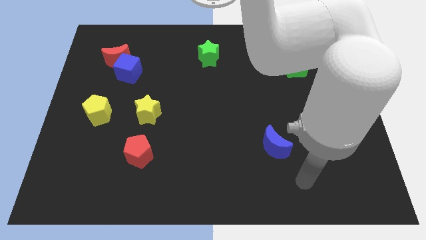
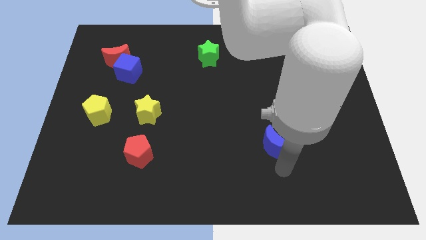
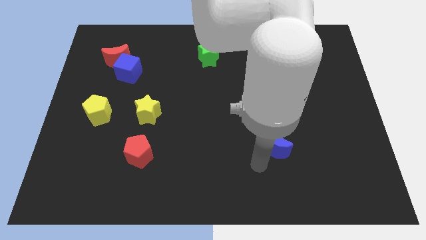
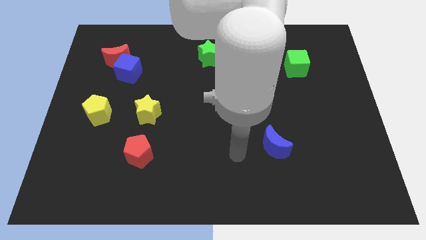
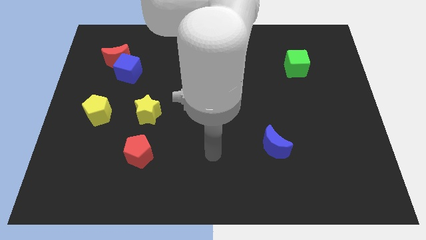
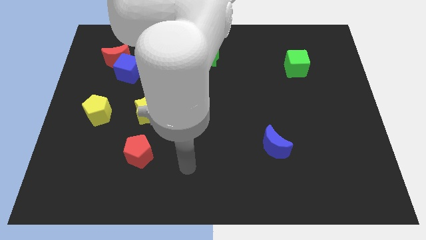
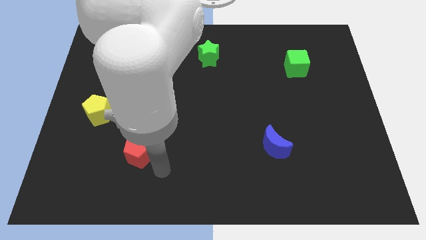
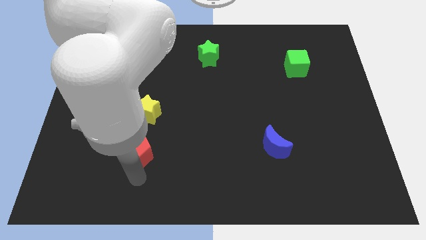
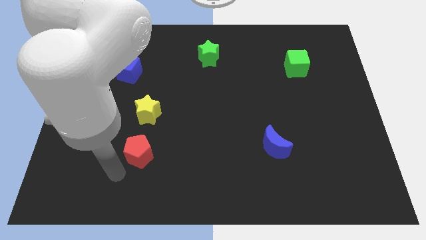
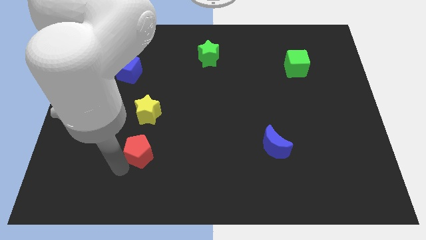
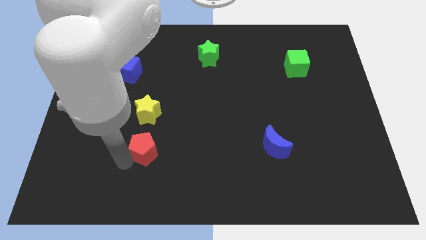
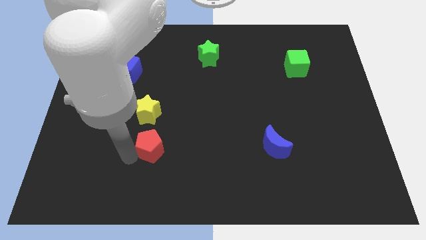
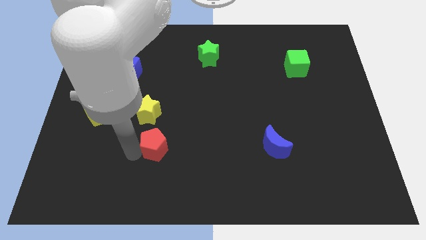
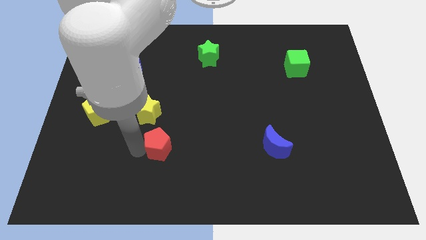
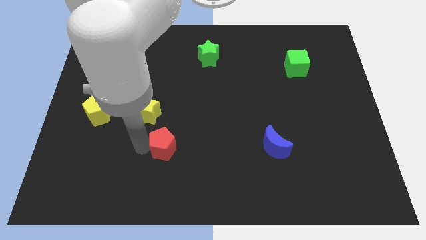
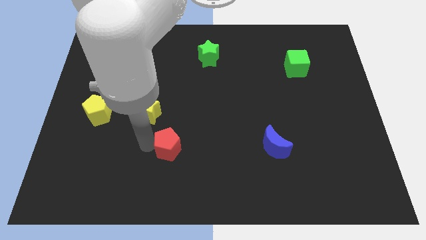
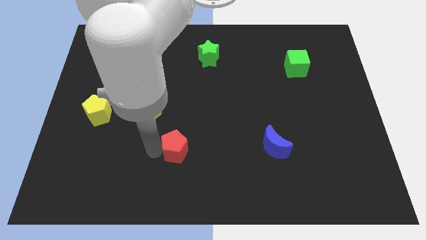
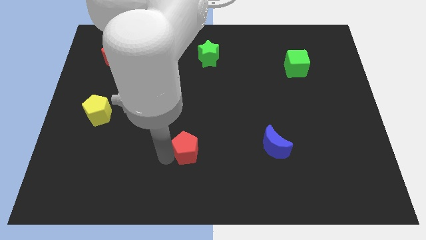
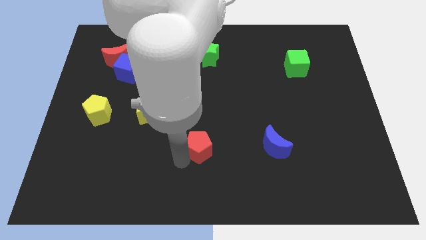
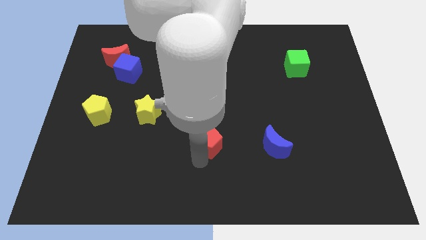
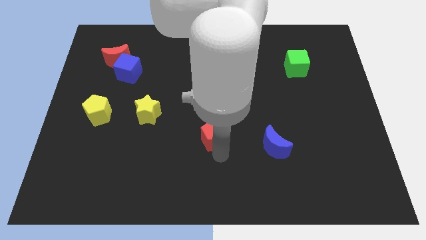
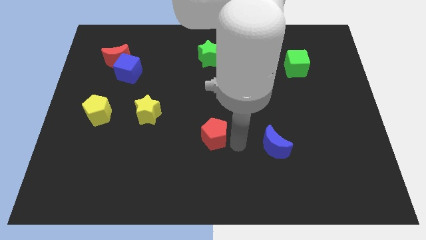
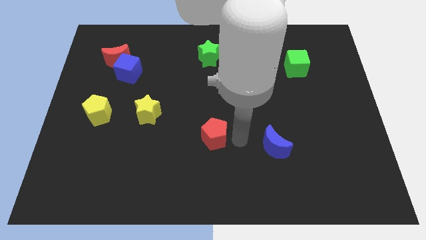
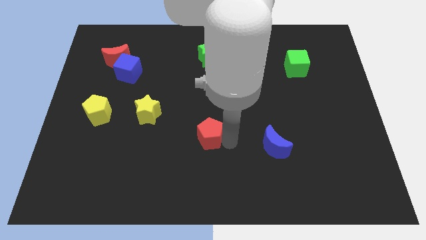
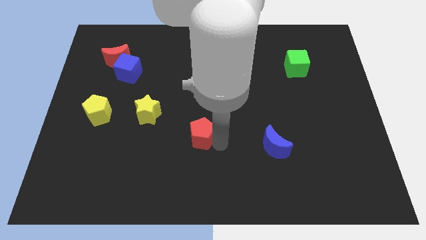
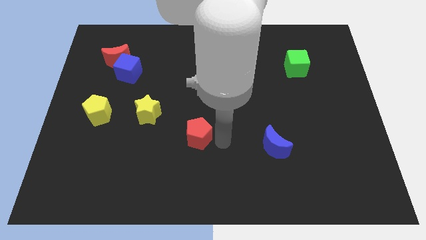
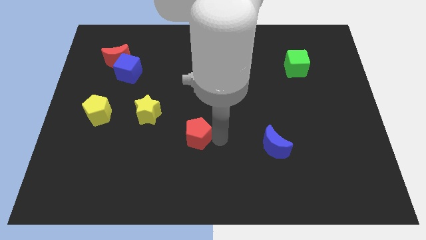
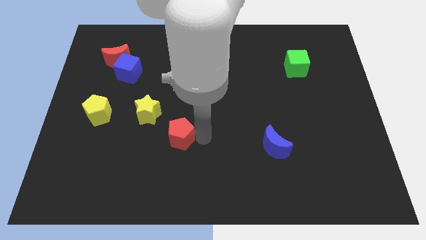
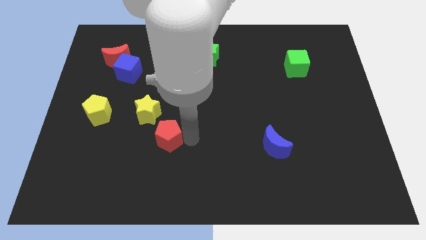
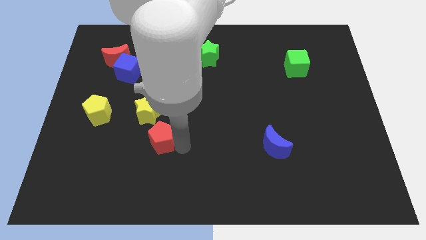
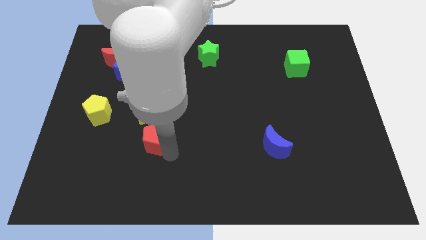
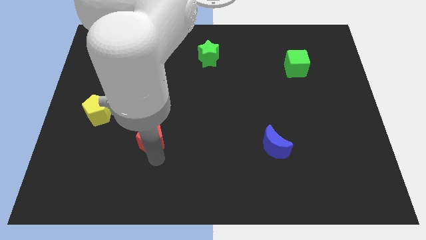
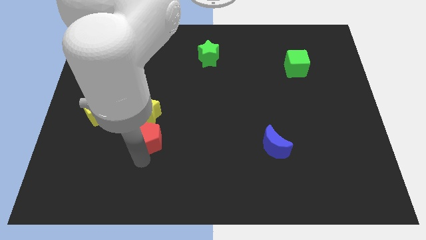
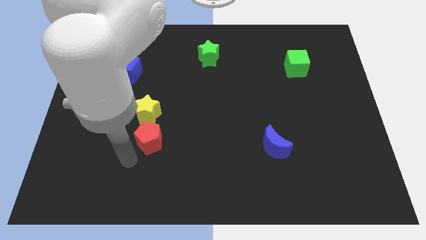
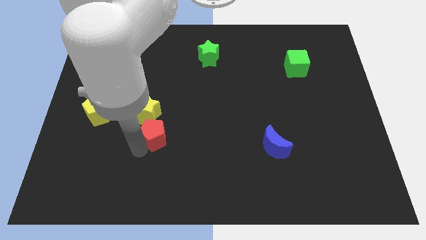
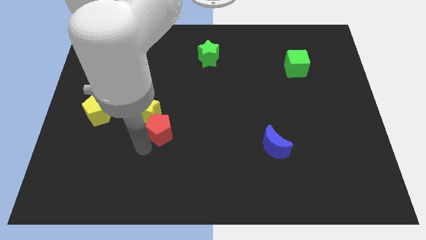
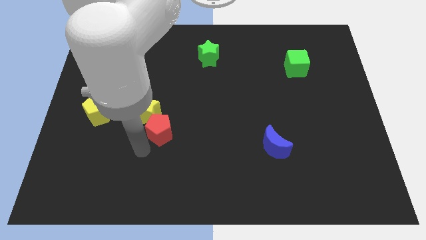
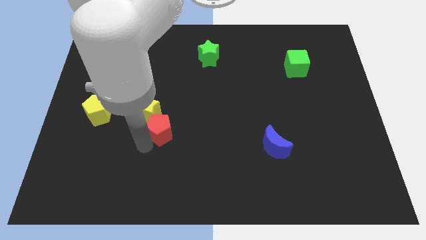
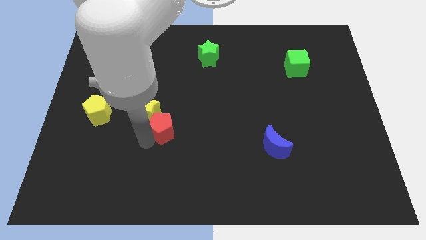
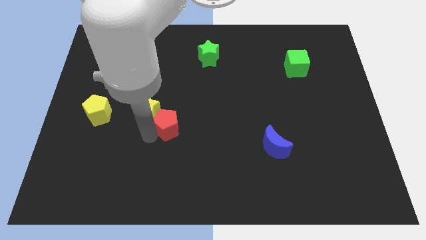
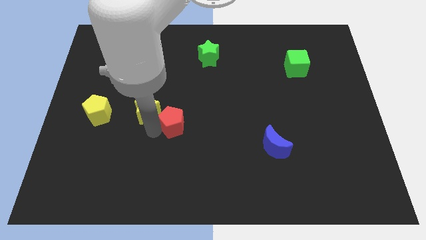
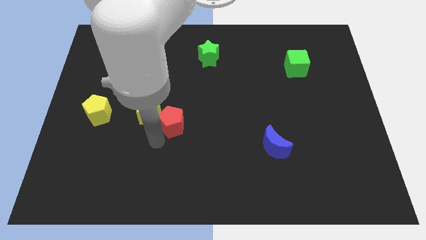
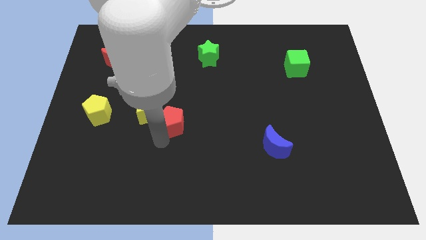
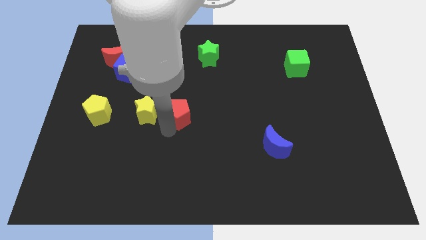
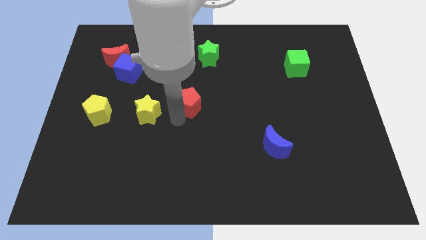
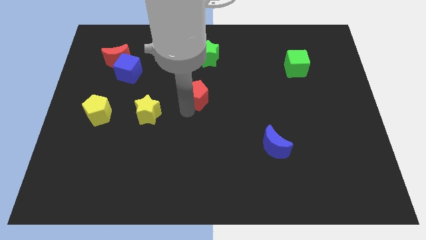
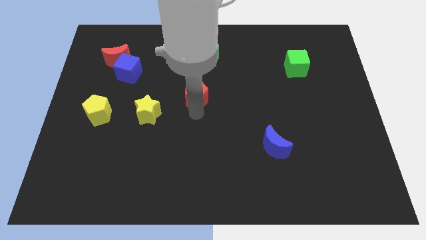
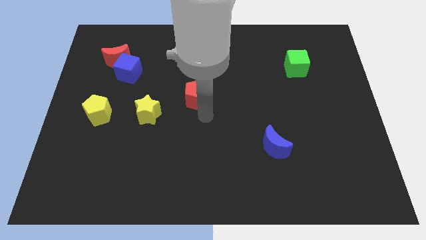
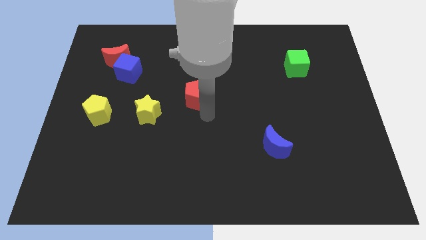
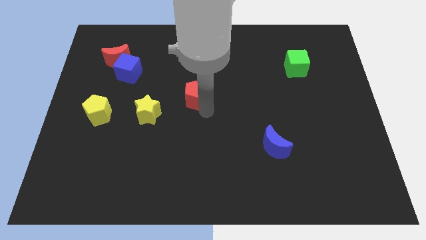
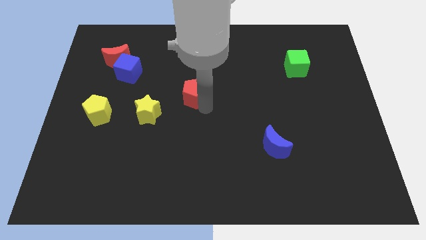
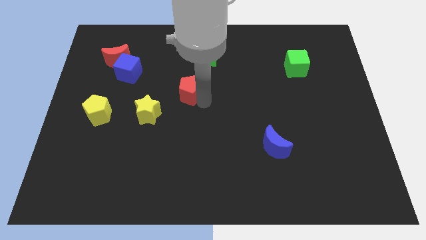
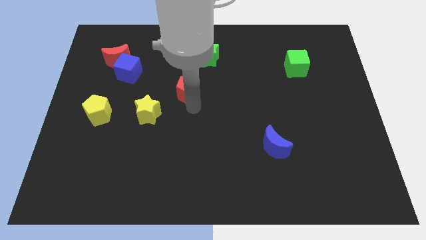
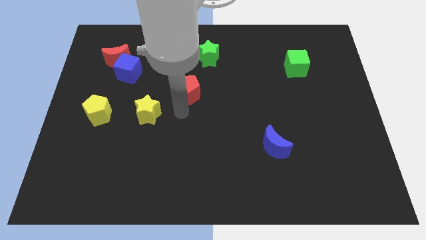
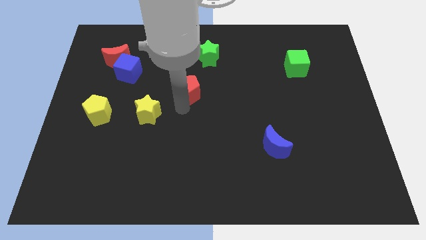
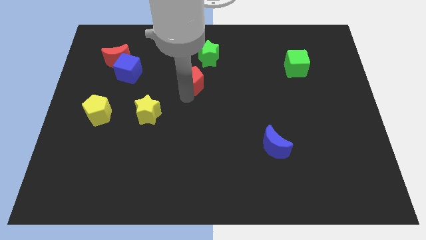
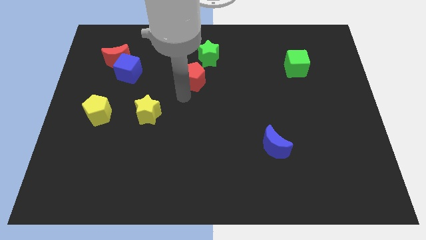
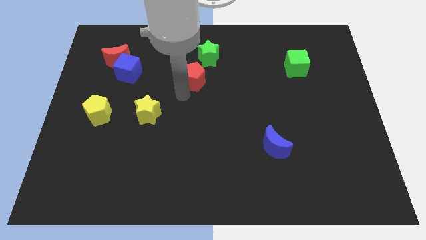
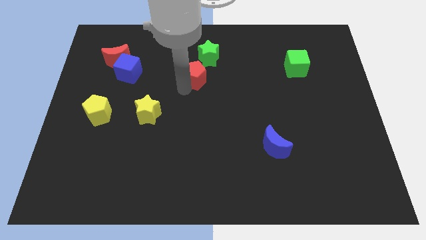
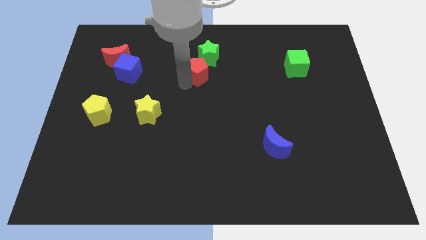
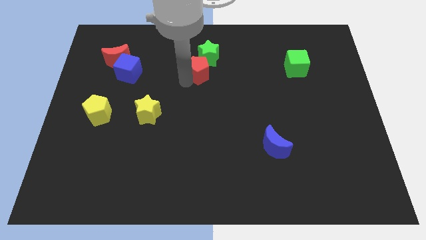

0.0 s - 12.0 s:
push the red pentagon to the green star

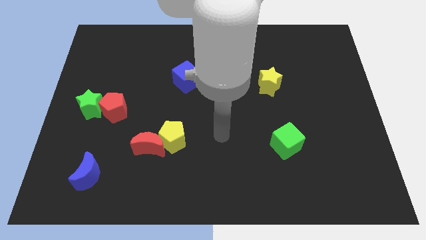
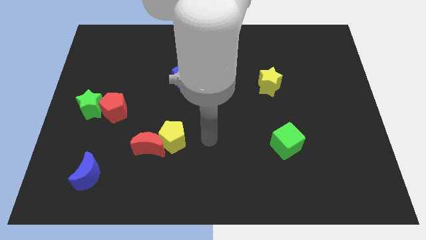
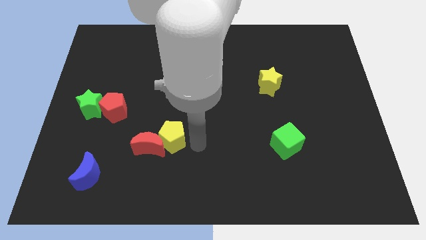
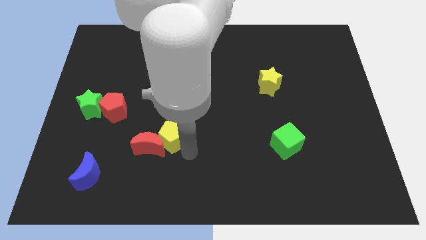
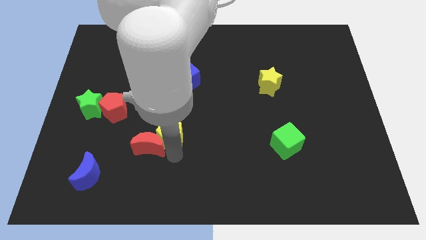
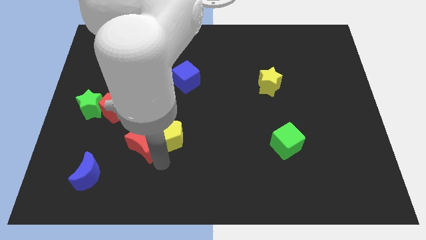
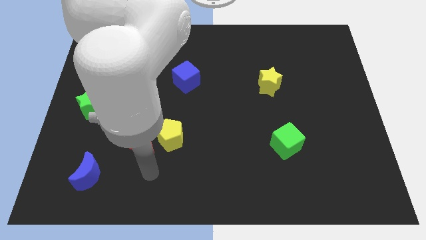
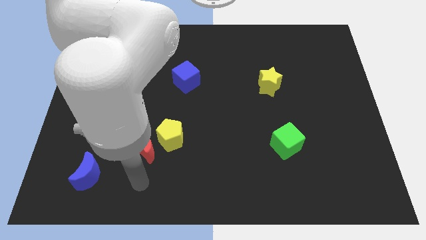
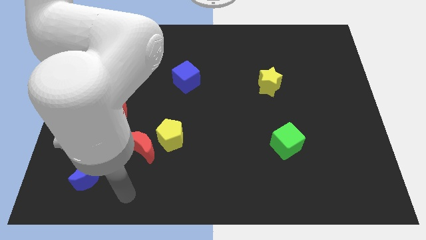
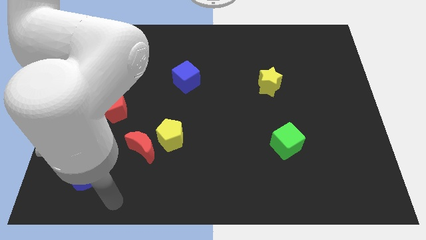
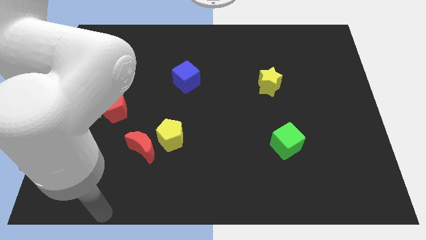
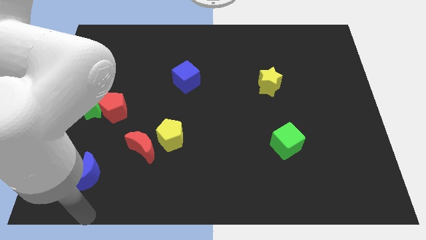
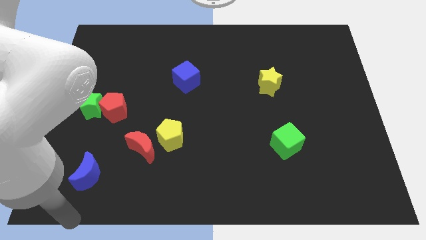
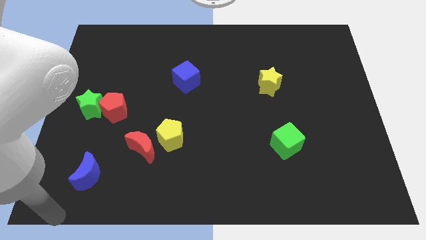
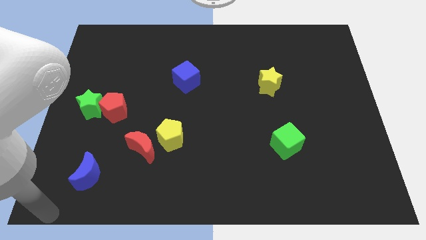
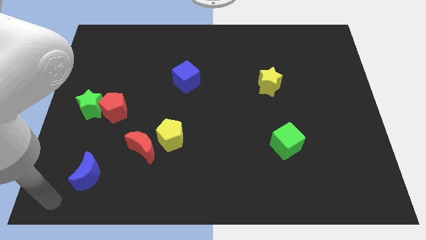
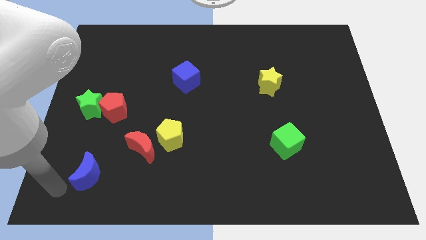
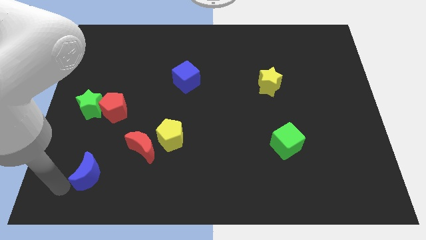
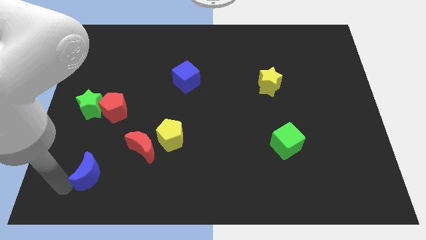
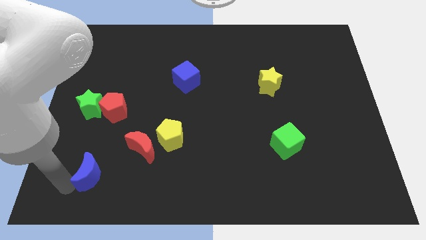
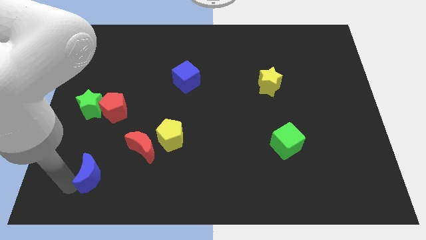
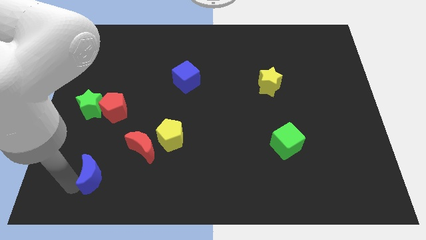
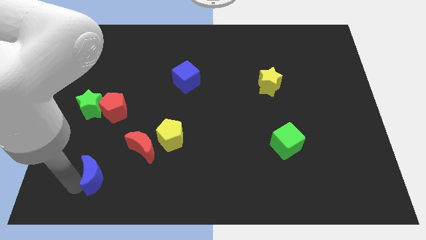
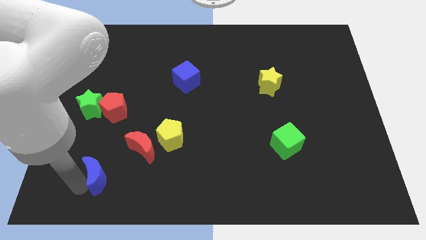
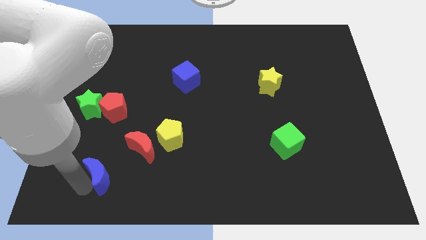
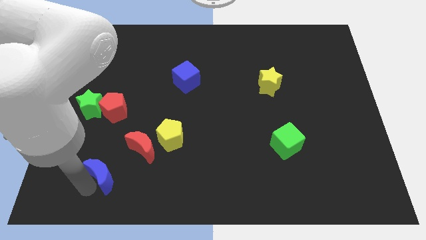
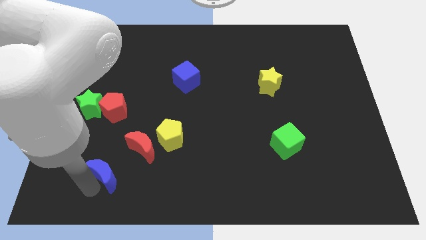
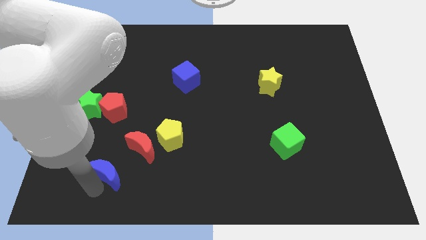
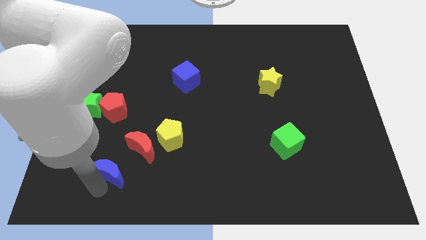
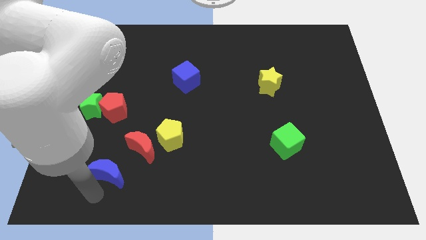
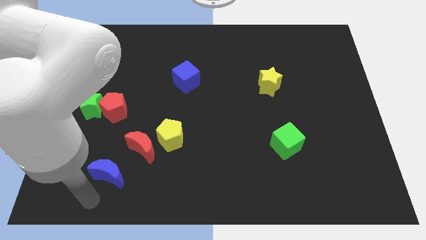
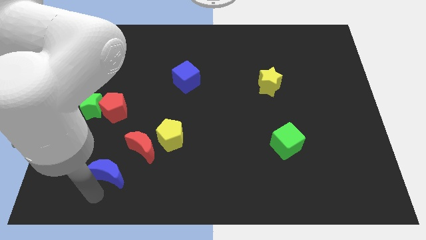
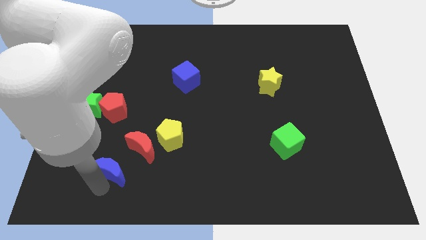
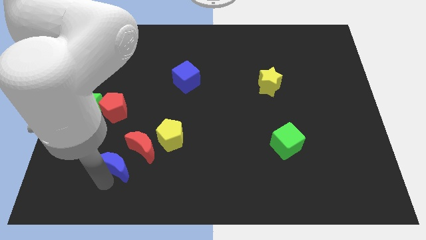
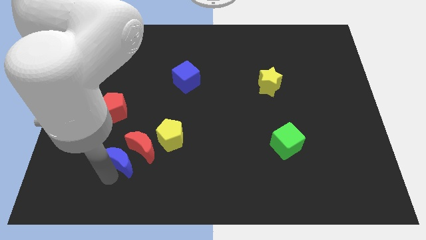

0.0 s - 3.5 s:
slide the blue moon next to the red moon
